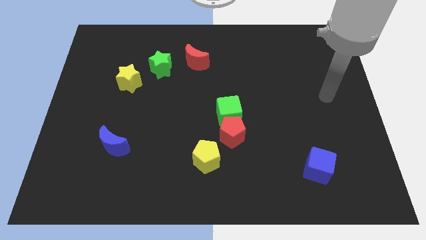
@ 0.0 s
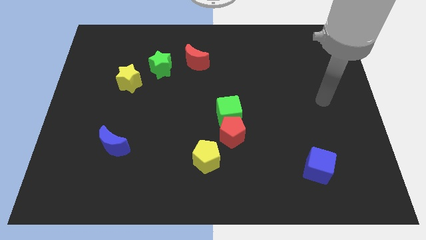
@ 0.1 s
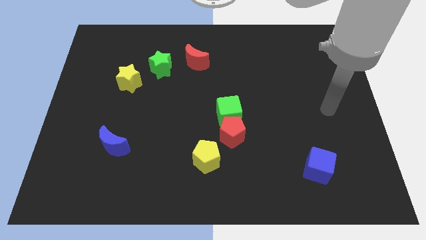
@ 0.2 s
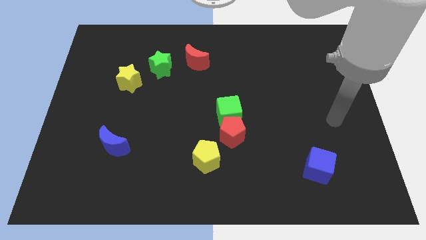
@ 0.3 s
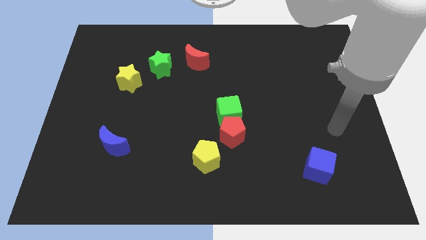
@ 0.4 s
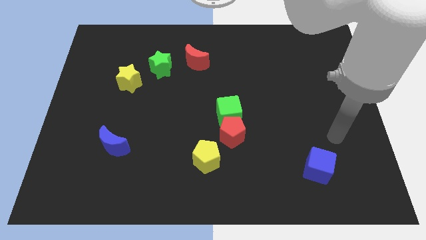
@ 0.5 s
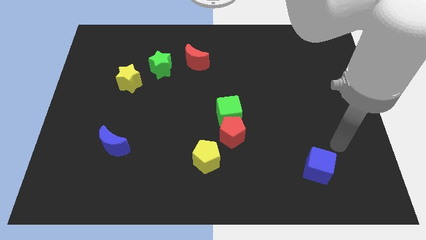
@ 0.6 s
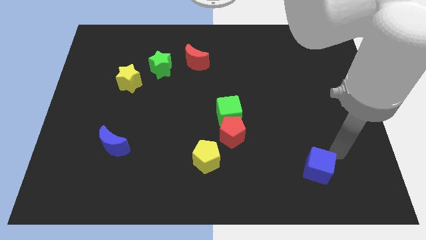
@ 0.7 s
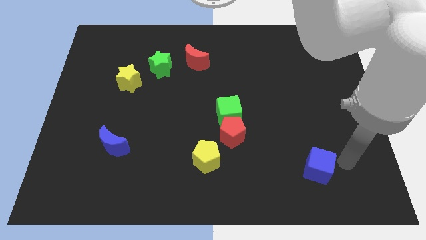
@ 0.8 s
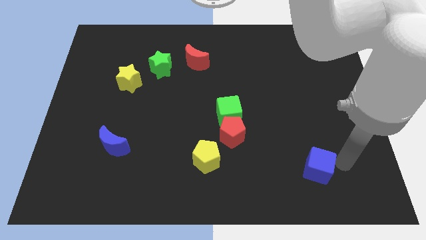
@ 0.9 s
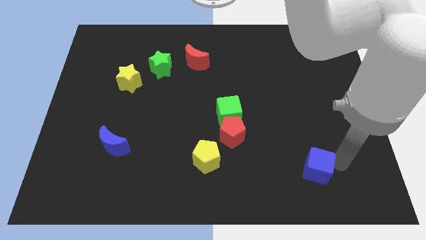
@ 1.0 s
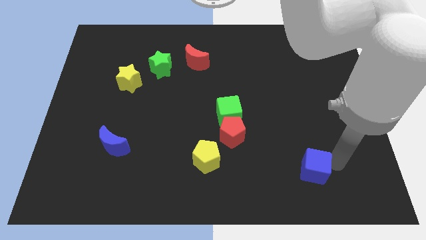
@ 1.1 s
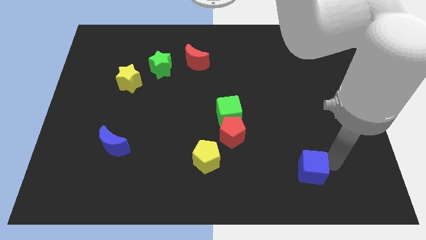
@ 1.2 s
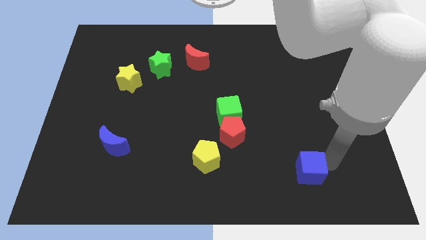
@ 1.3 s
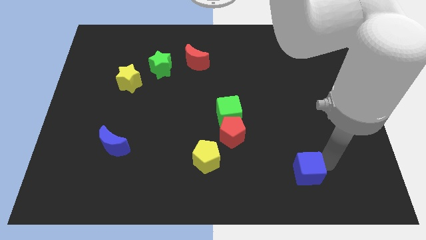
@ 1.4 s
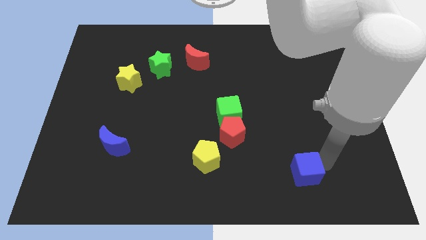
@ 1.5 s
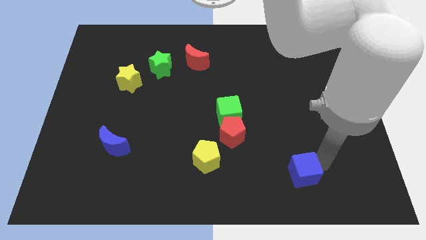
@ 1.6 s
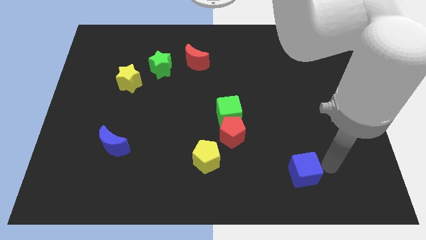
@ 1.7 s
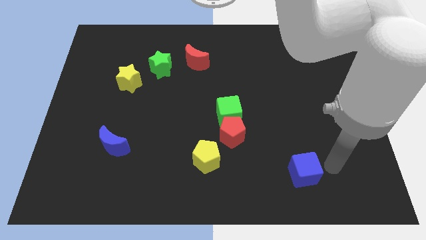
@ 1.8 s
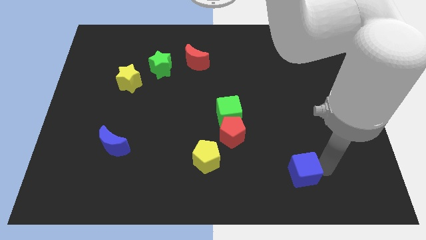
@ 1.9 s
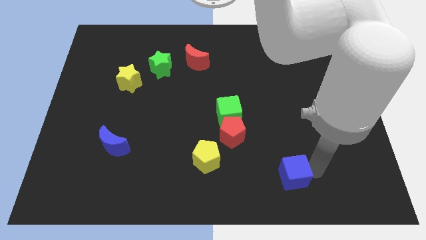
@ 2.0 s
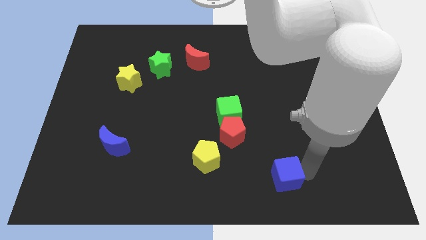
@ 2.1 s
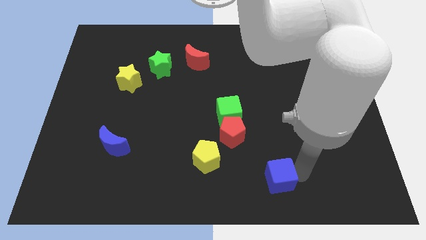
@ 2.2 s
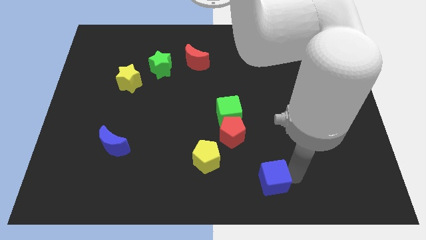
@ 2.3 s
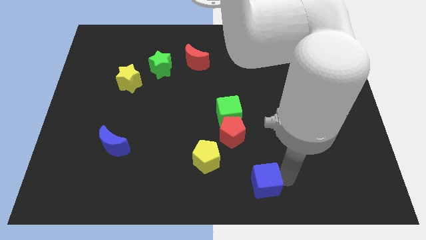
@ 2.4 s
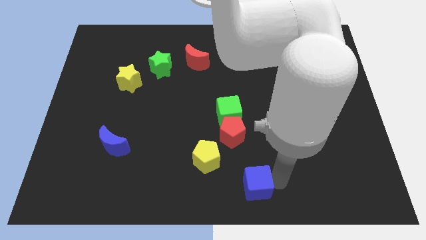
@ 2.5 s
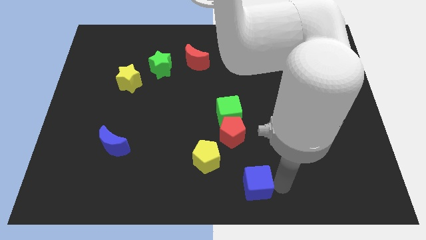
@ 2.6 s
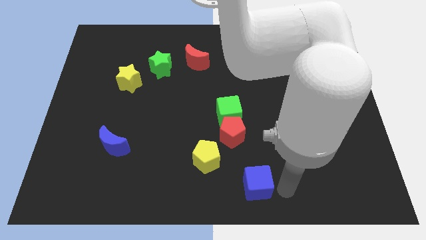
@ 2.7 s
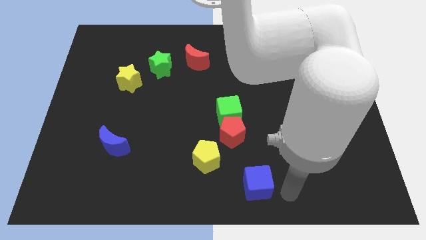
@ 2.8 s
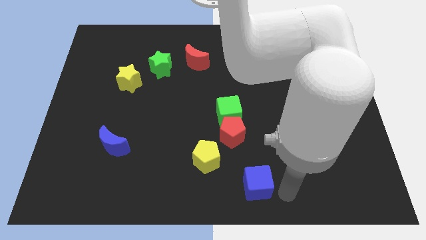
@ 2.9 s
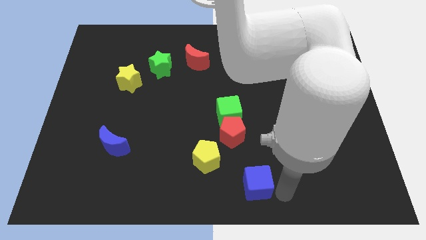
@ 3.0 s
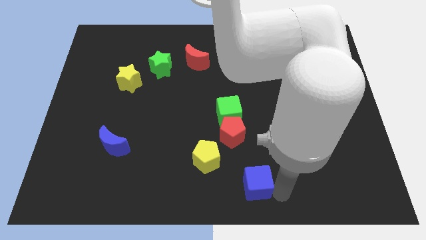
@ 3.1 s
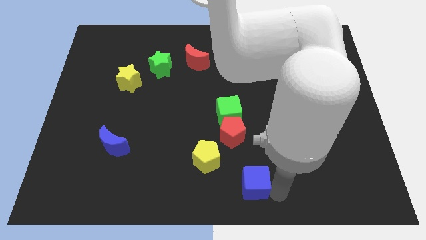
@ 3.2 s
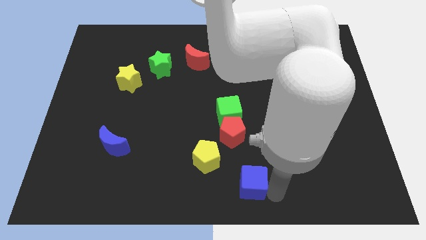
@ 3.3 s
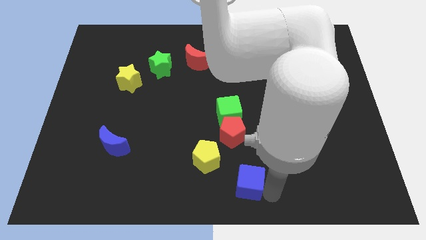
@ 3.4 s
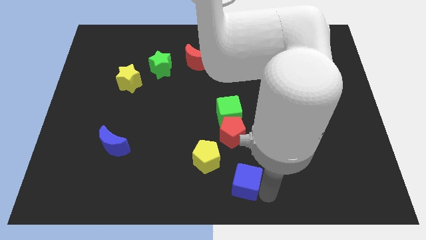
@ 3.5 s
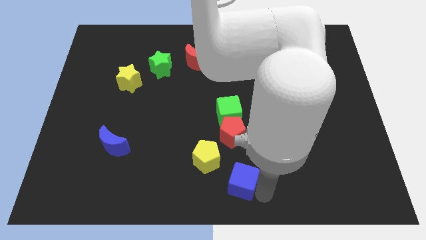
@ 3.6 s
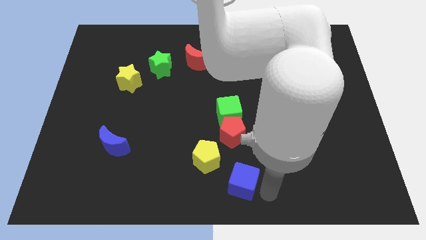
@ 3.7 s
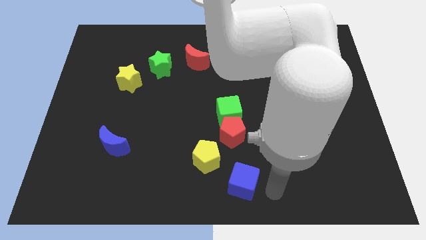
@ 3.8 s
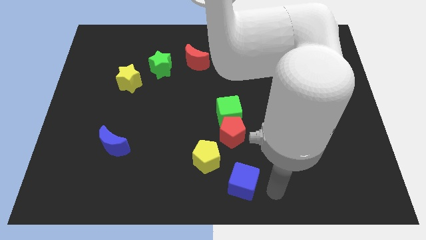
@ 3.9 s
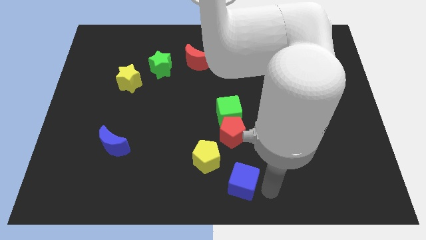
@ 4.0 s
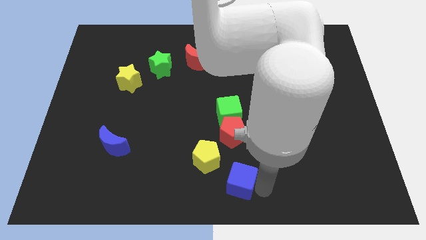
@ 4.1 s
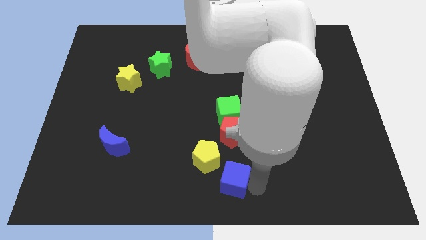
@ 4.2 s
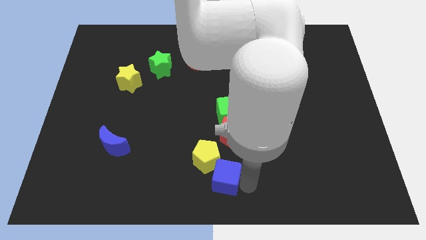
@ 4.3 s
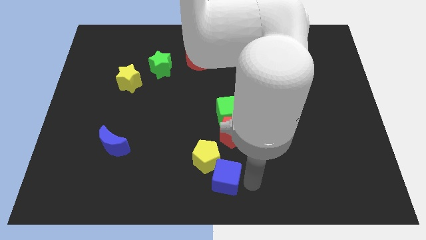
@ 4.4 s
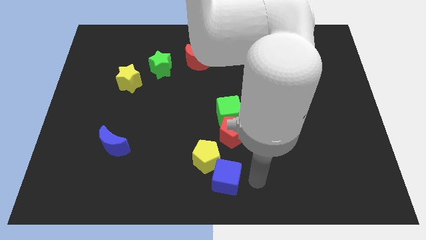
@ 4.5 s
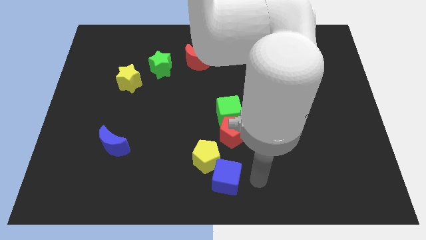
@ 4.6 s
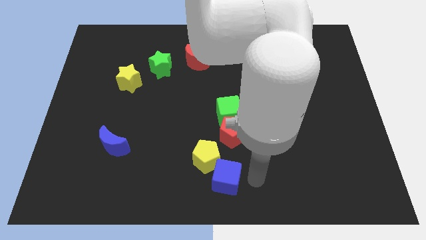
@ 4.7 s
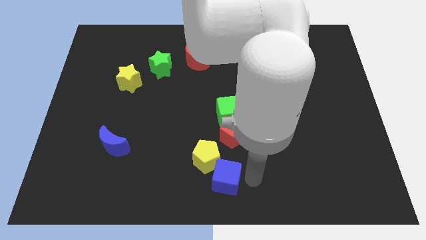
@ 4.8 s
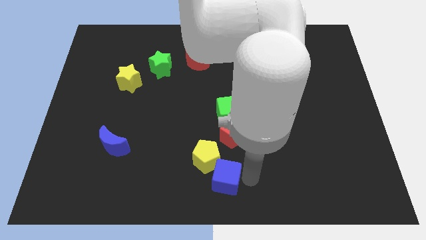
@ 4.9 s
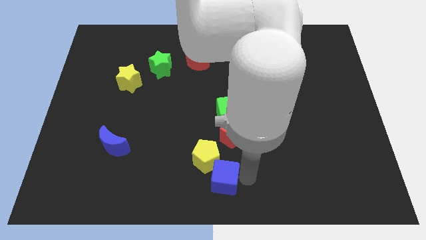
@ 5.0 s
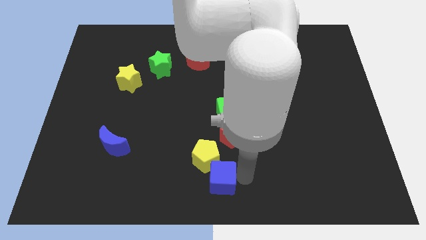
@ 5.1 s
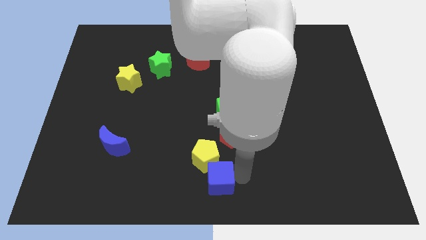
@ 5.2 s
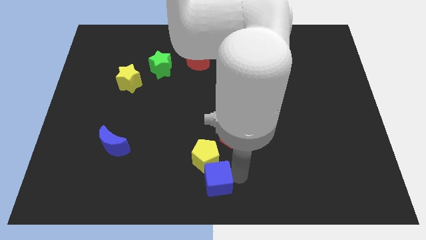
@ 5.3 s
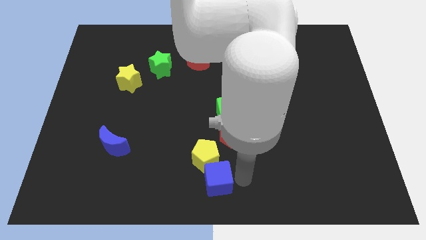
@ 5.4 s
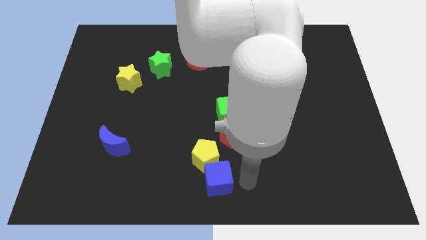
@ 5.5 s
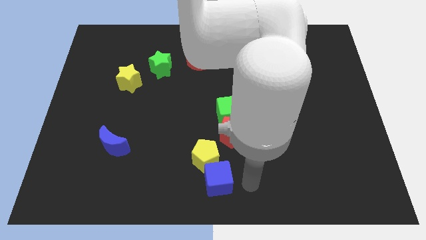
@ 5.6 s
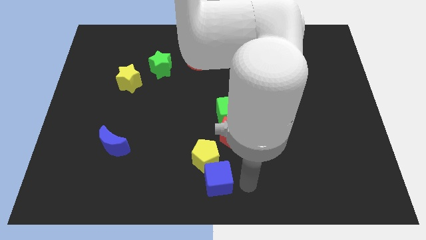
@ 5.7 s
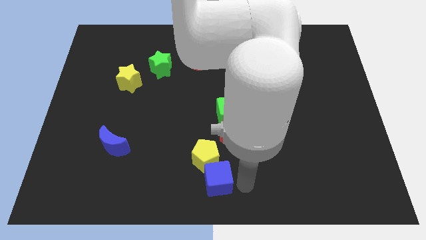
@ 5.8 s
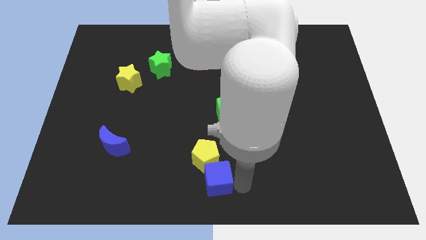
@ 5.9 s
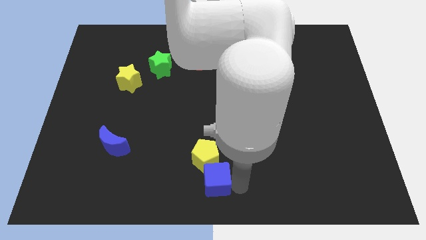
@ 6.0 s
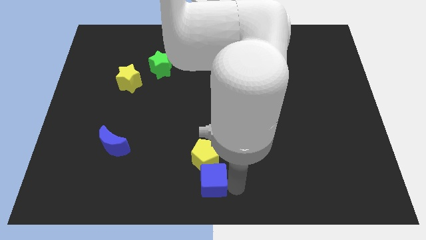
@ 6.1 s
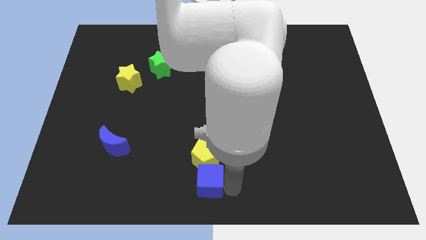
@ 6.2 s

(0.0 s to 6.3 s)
move the blue cube to the bottom left side of the yellow pentagon

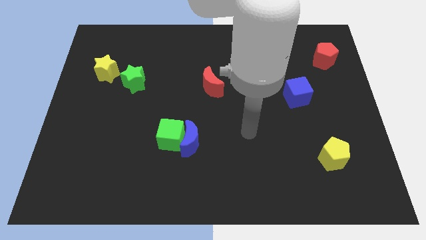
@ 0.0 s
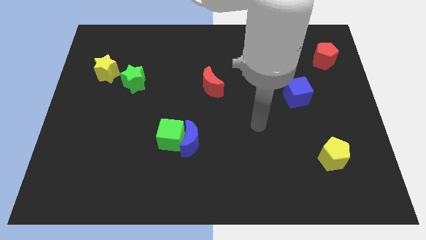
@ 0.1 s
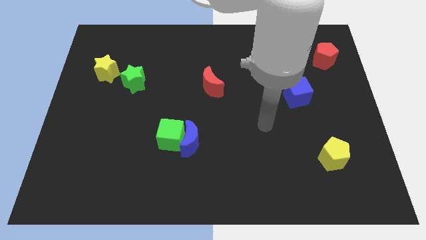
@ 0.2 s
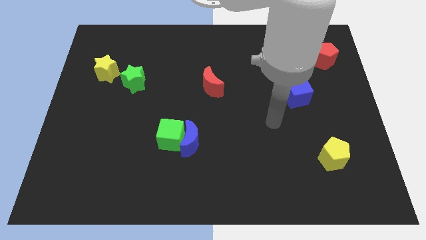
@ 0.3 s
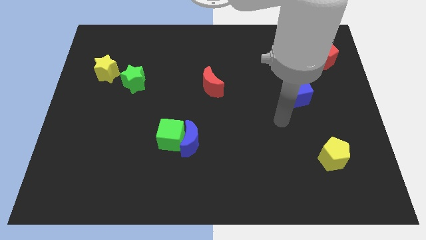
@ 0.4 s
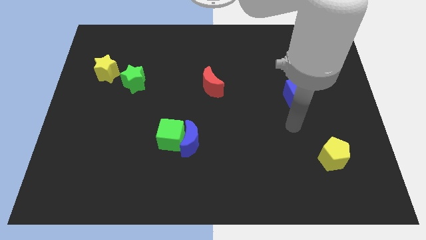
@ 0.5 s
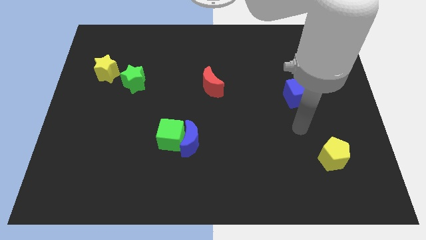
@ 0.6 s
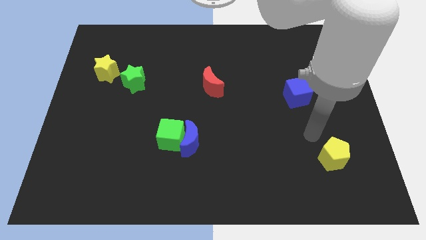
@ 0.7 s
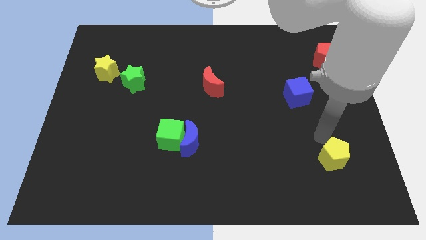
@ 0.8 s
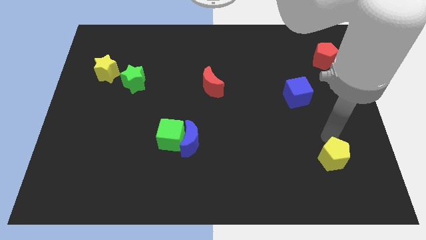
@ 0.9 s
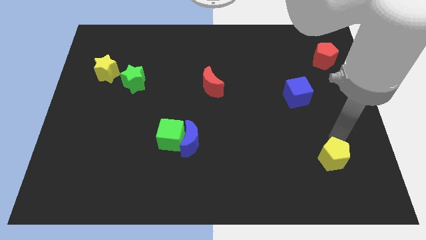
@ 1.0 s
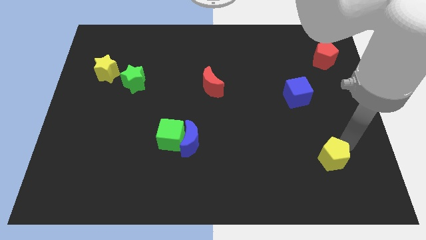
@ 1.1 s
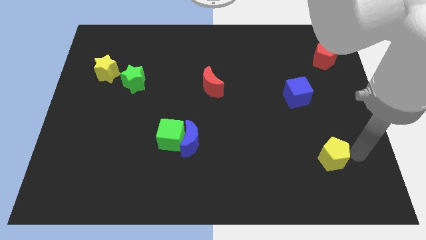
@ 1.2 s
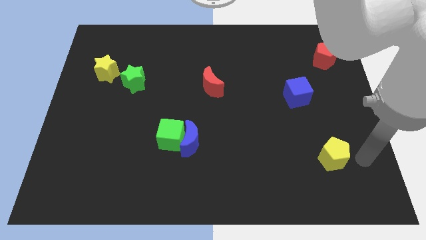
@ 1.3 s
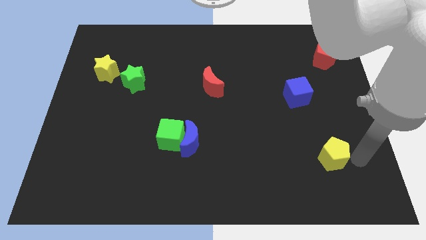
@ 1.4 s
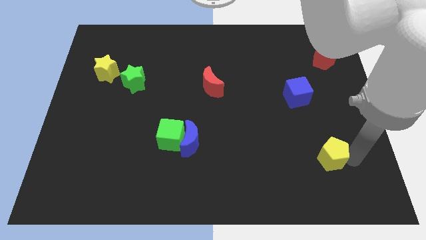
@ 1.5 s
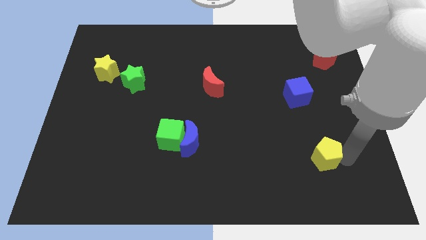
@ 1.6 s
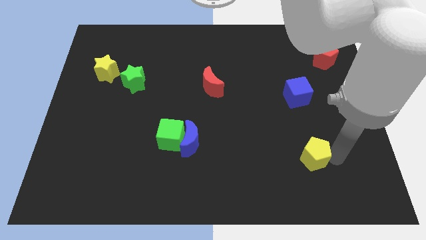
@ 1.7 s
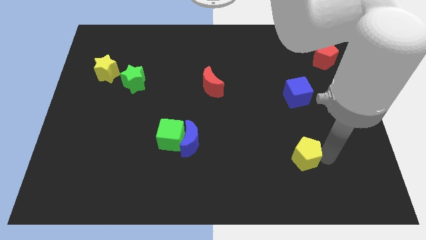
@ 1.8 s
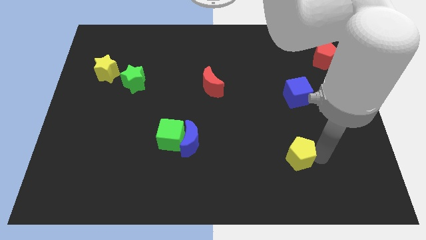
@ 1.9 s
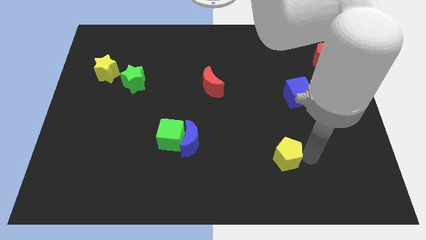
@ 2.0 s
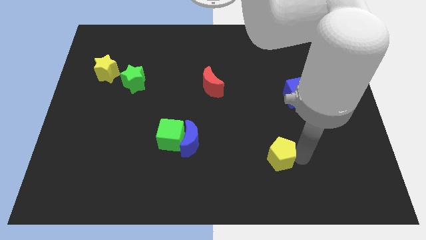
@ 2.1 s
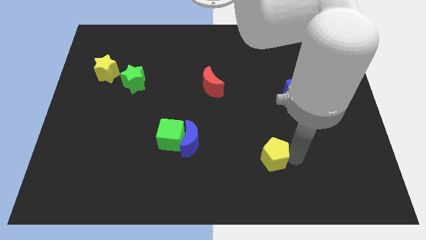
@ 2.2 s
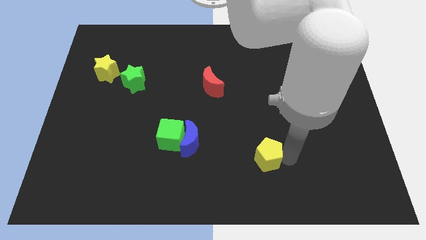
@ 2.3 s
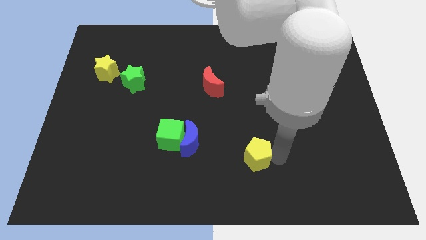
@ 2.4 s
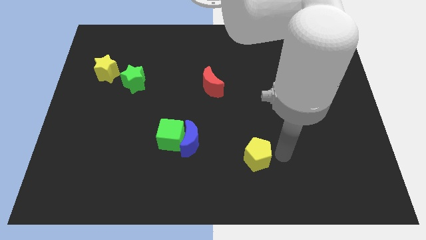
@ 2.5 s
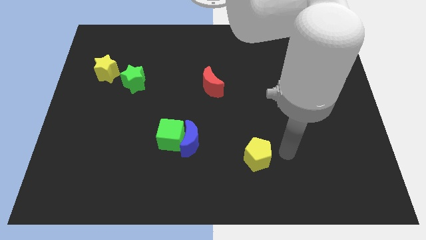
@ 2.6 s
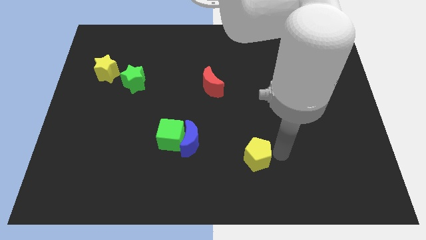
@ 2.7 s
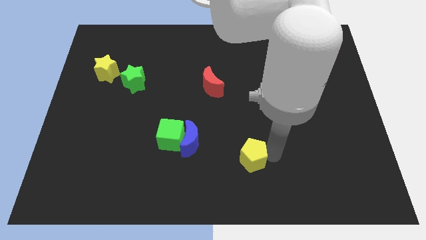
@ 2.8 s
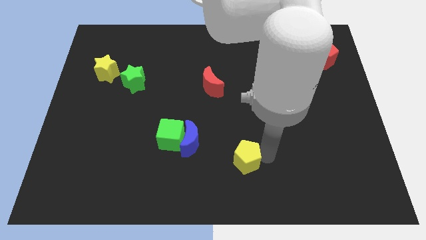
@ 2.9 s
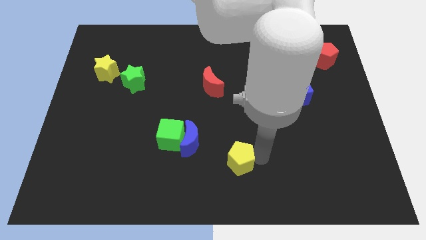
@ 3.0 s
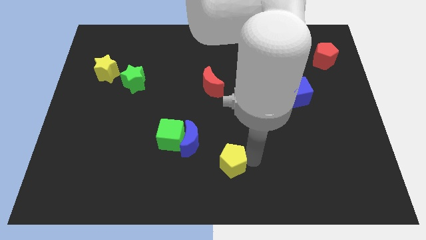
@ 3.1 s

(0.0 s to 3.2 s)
move the yellow pentagon to the bottom right side of the blue moon
